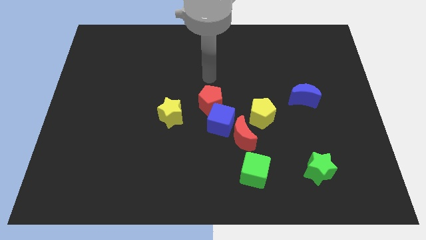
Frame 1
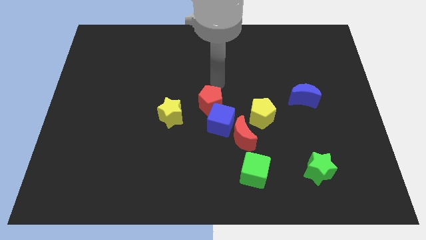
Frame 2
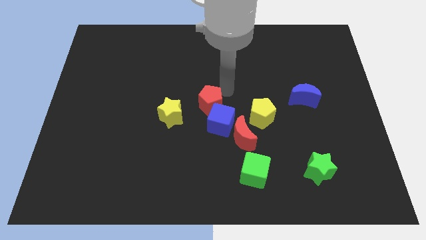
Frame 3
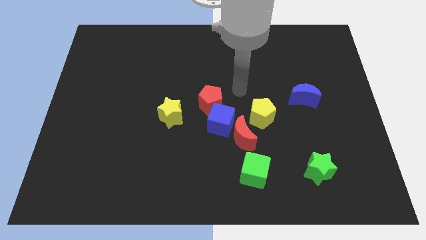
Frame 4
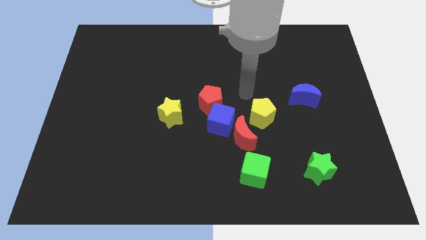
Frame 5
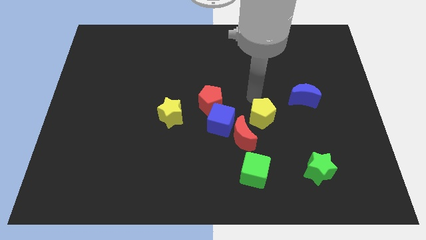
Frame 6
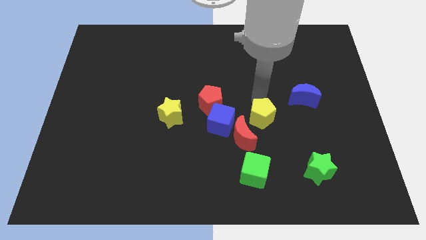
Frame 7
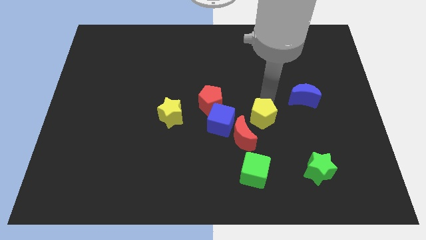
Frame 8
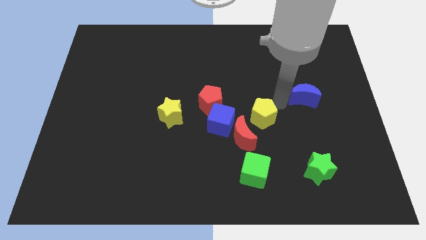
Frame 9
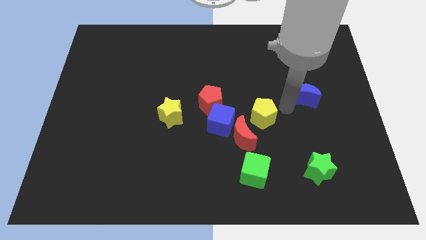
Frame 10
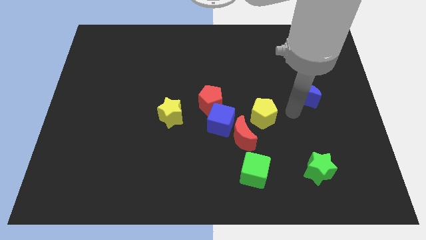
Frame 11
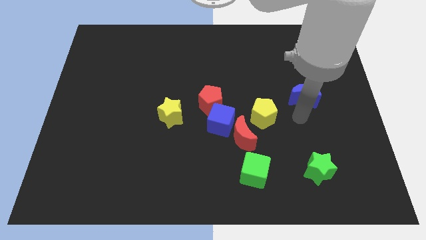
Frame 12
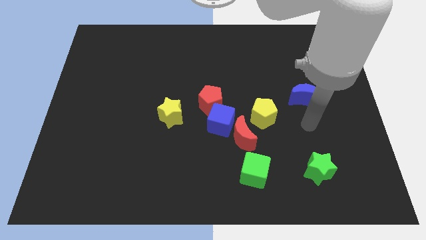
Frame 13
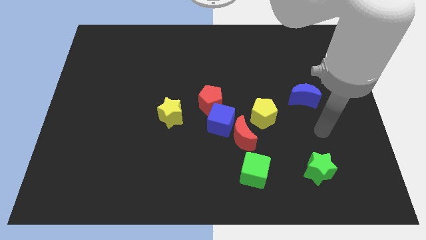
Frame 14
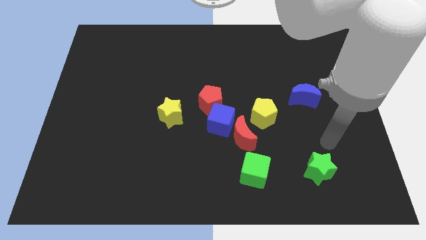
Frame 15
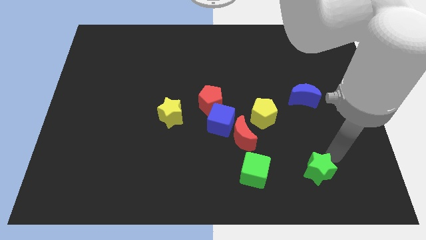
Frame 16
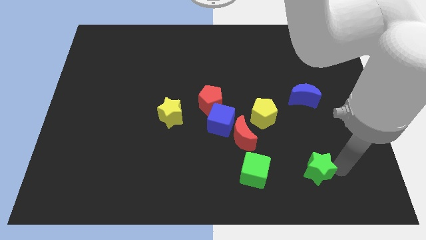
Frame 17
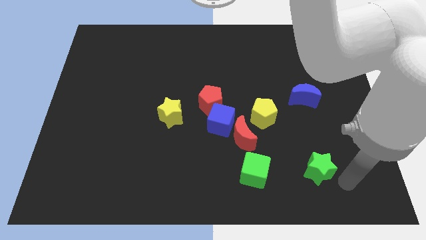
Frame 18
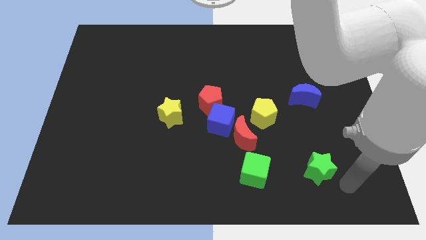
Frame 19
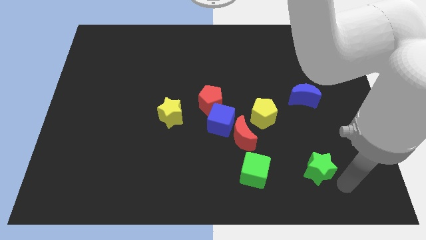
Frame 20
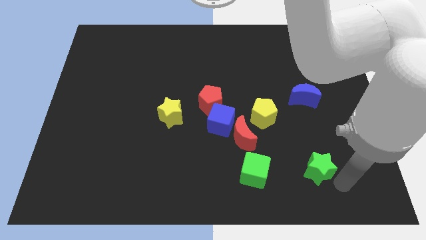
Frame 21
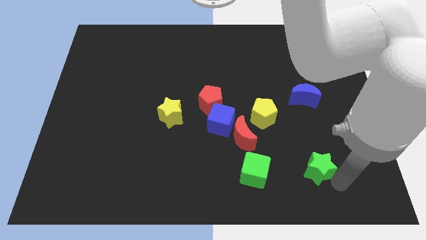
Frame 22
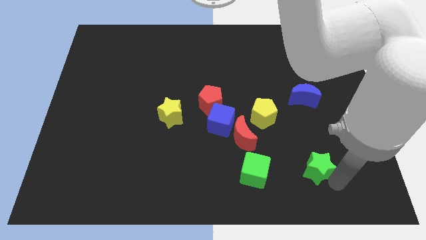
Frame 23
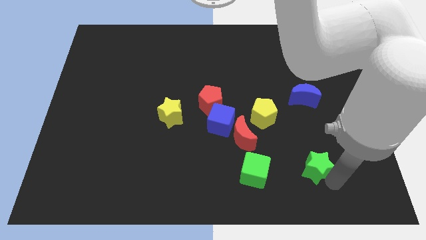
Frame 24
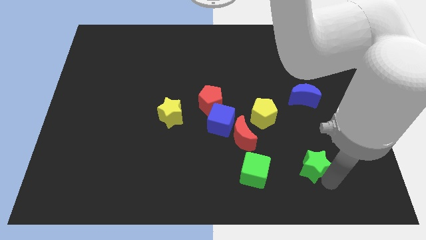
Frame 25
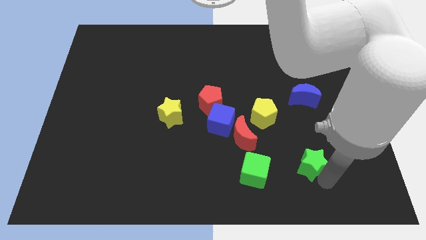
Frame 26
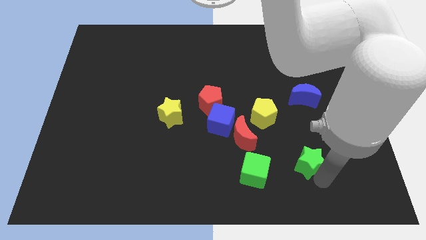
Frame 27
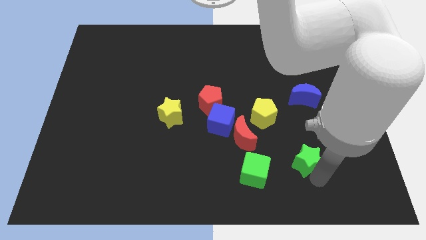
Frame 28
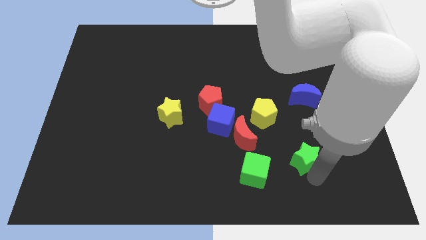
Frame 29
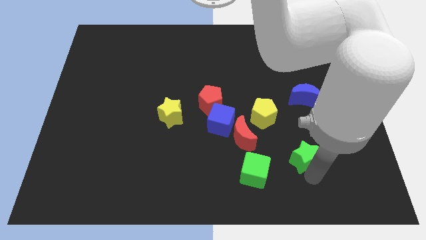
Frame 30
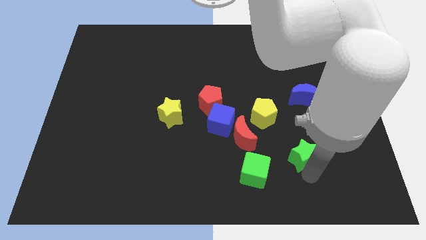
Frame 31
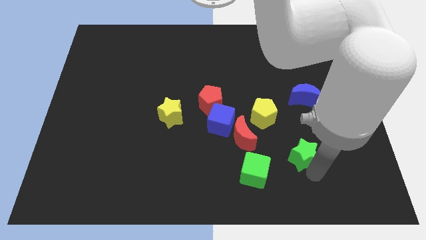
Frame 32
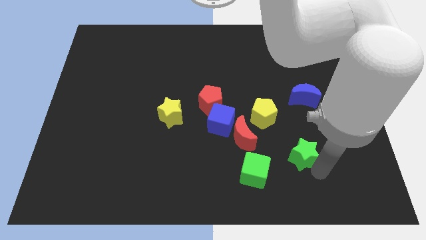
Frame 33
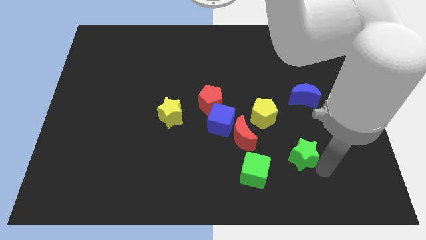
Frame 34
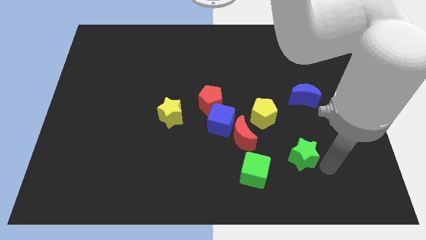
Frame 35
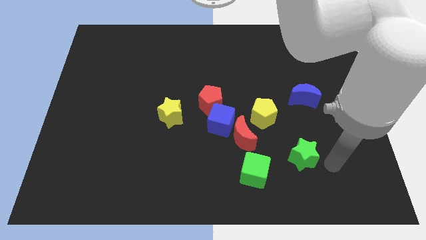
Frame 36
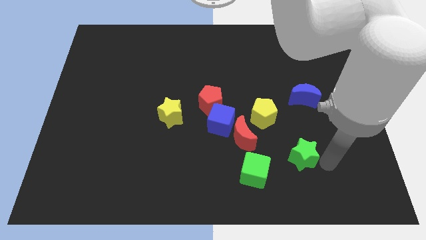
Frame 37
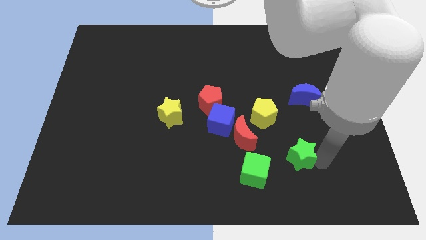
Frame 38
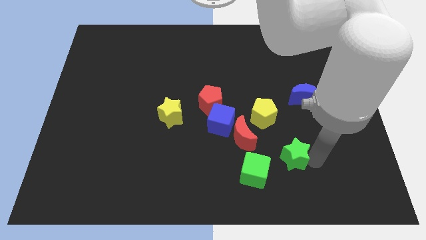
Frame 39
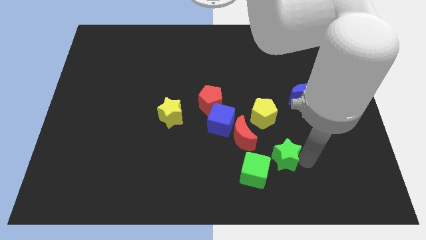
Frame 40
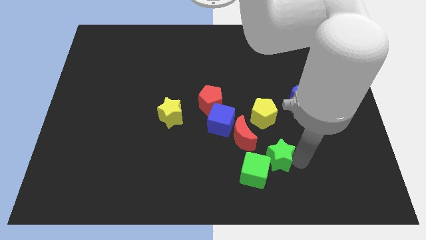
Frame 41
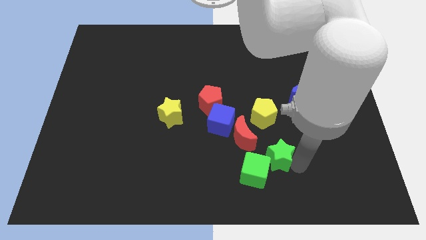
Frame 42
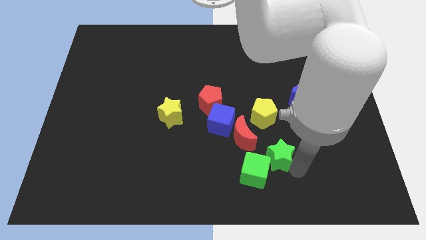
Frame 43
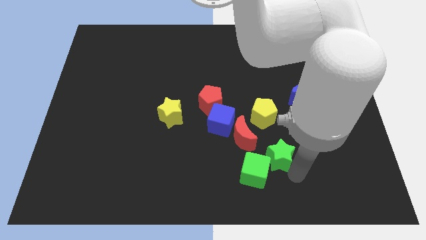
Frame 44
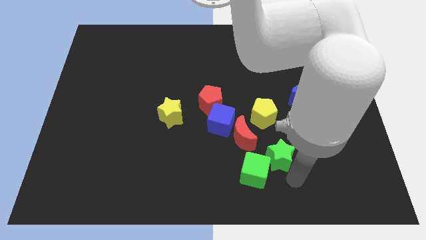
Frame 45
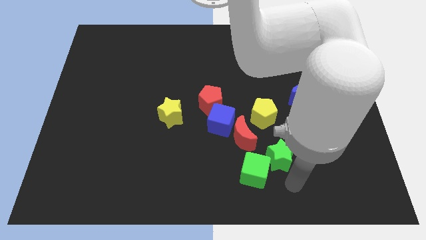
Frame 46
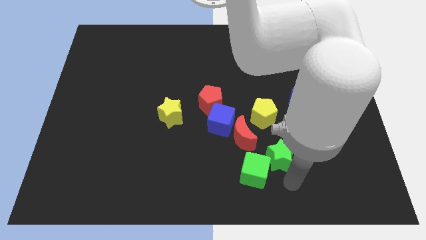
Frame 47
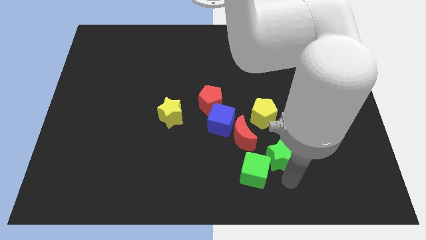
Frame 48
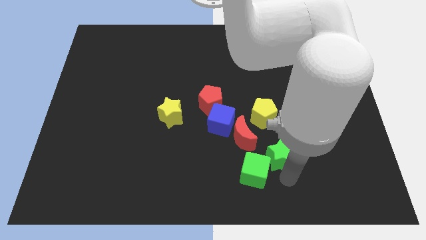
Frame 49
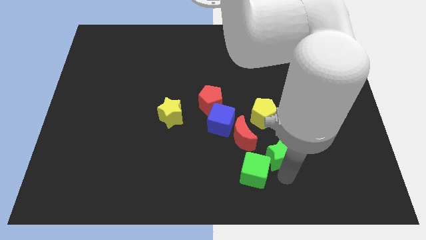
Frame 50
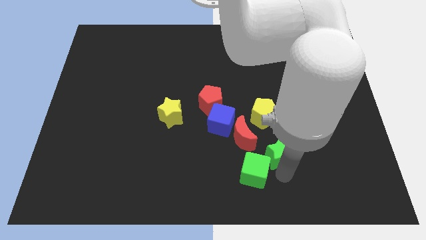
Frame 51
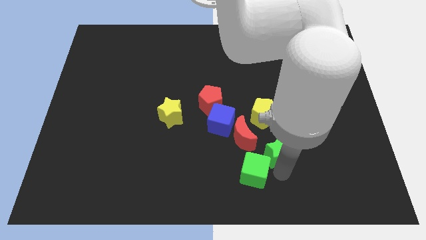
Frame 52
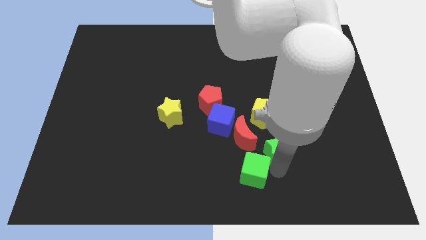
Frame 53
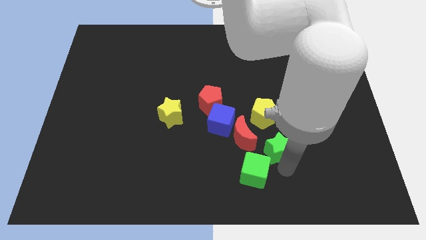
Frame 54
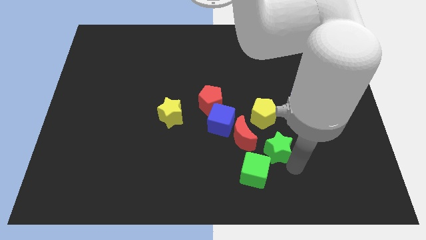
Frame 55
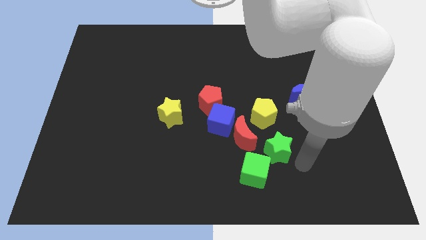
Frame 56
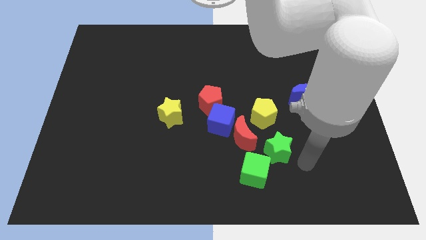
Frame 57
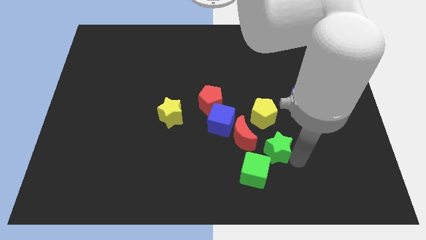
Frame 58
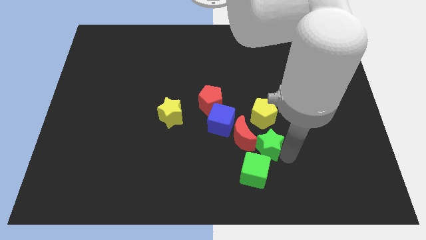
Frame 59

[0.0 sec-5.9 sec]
push the green star towards the red moon

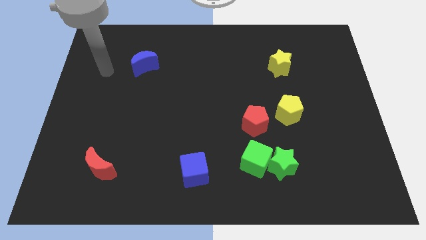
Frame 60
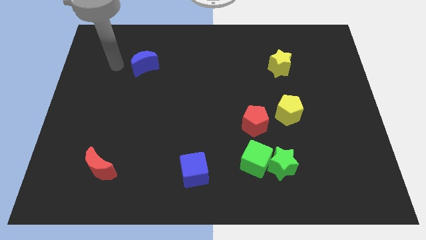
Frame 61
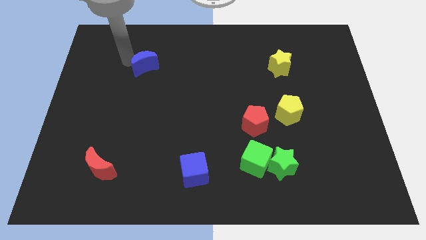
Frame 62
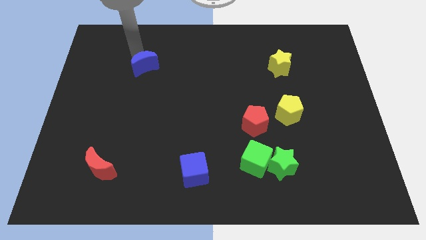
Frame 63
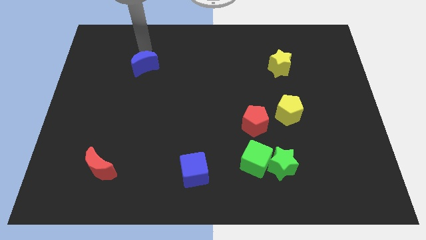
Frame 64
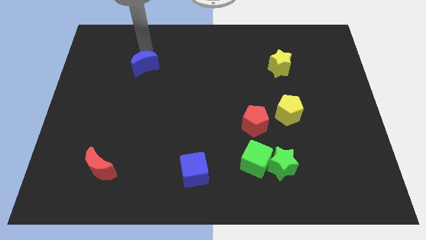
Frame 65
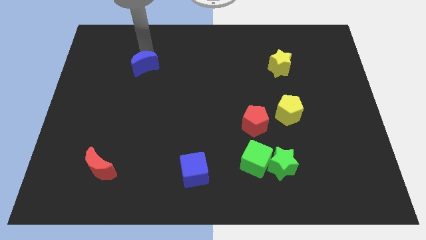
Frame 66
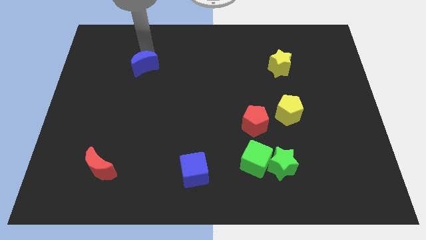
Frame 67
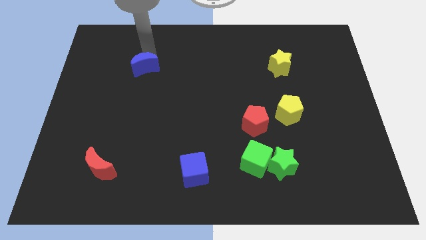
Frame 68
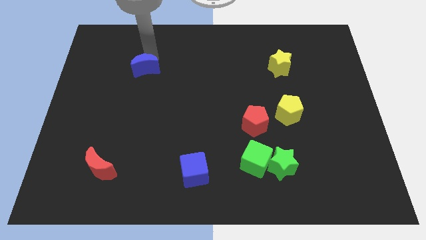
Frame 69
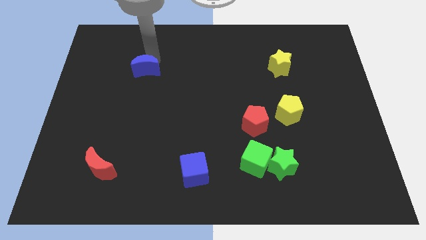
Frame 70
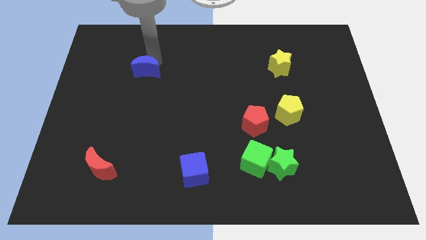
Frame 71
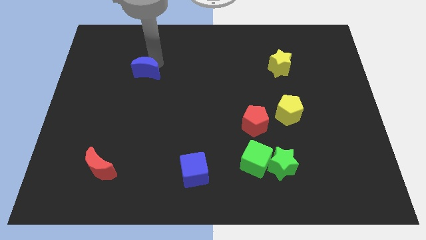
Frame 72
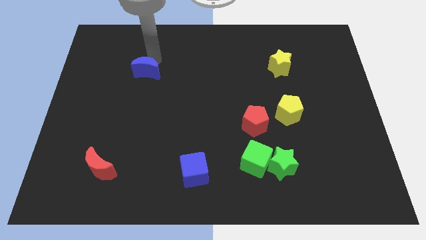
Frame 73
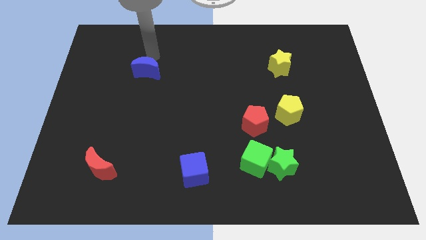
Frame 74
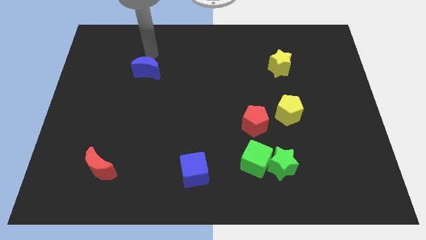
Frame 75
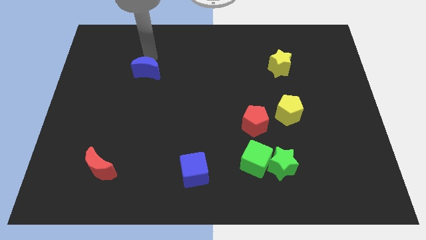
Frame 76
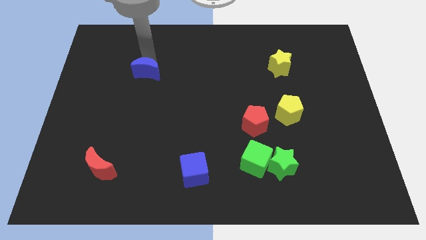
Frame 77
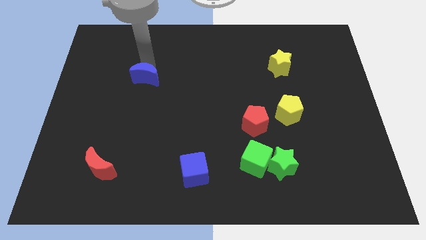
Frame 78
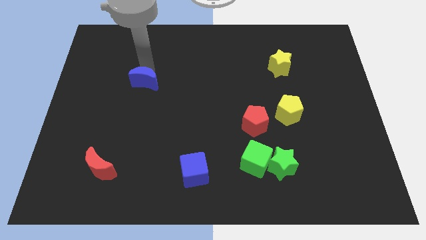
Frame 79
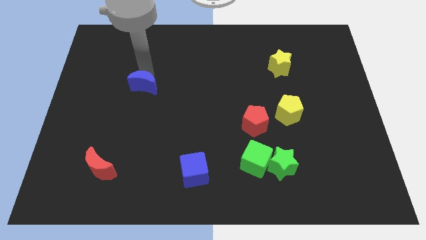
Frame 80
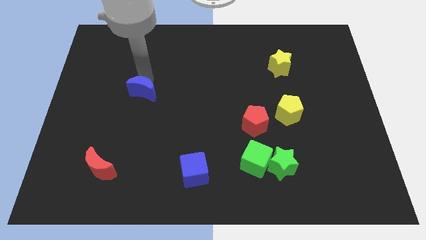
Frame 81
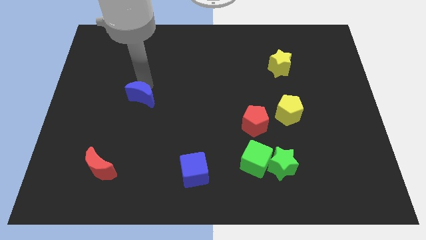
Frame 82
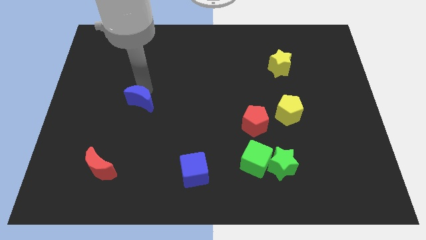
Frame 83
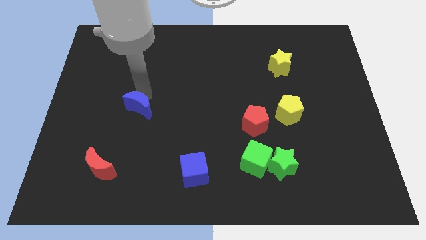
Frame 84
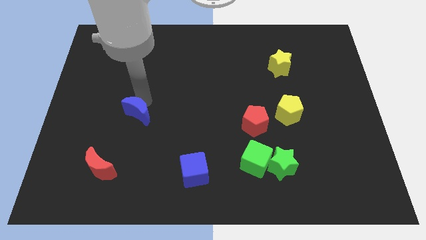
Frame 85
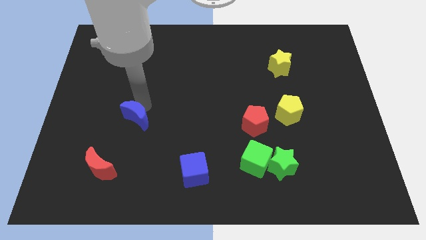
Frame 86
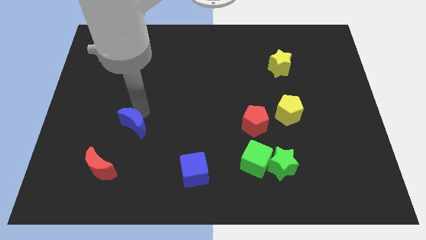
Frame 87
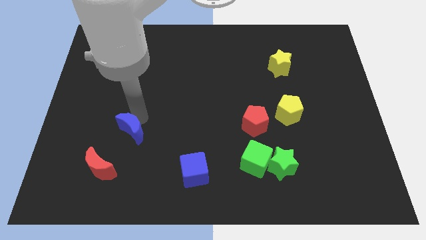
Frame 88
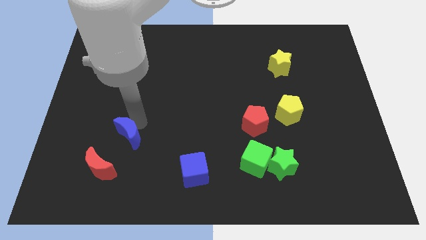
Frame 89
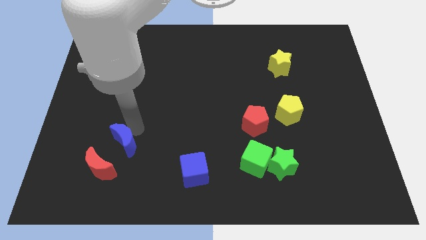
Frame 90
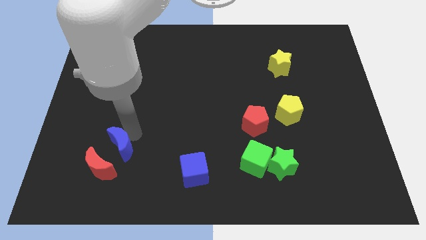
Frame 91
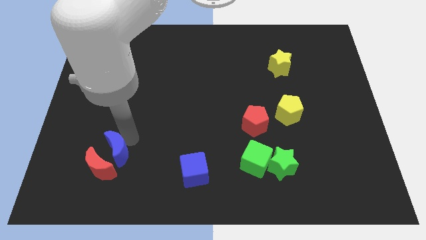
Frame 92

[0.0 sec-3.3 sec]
put the blue moon next to the red moon
